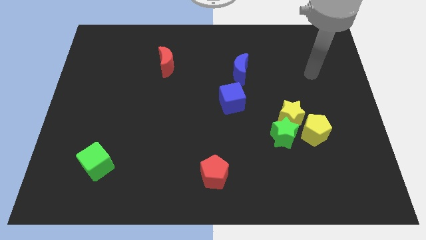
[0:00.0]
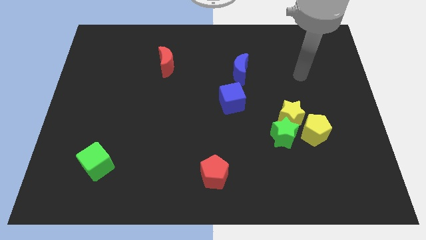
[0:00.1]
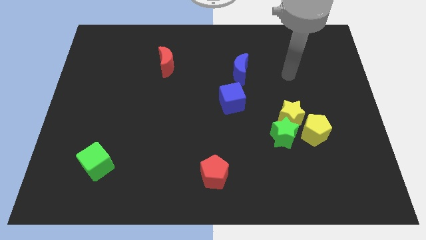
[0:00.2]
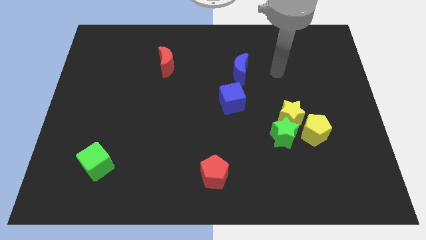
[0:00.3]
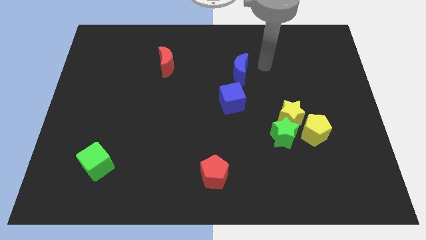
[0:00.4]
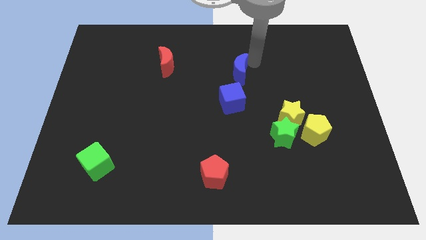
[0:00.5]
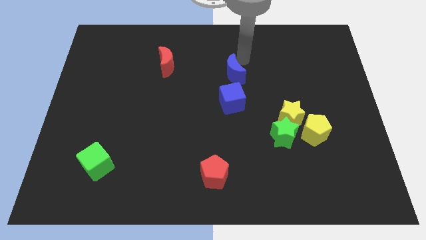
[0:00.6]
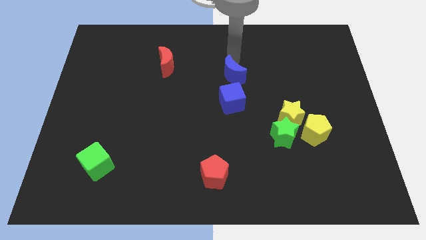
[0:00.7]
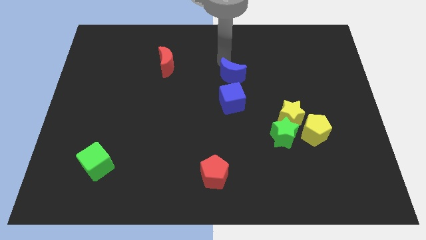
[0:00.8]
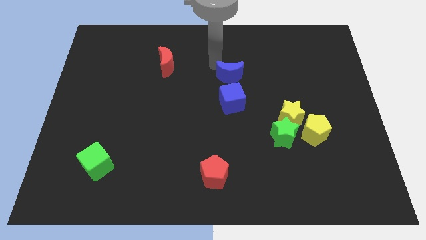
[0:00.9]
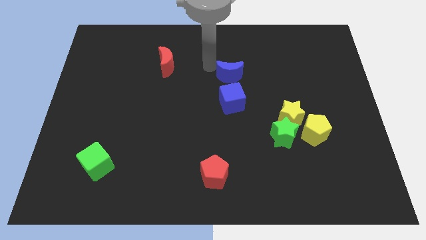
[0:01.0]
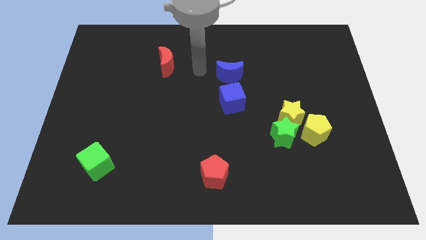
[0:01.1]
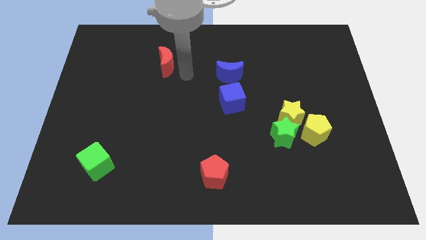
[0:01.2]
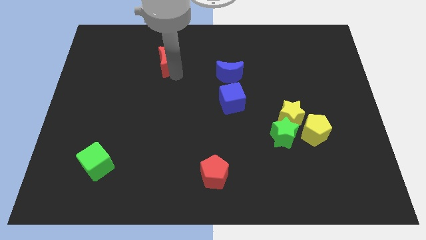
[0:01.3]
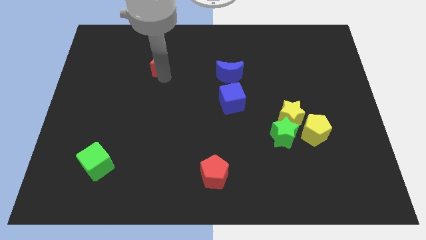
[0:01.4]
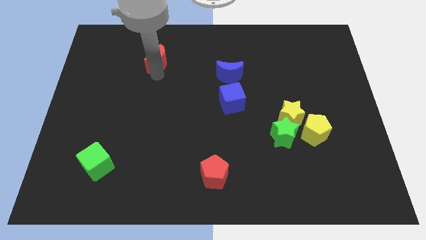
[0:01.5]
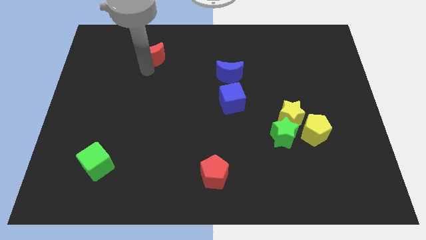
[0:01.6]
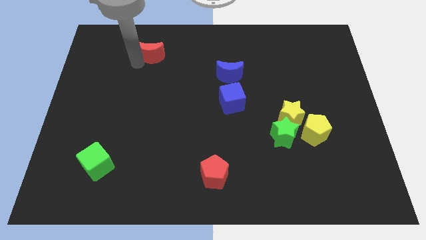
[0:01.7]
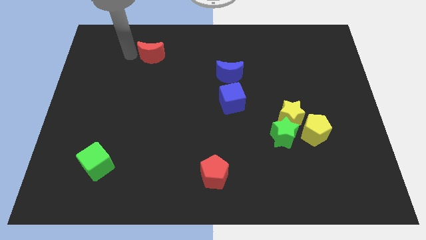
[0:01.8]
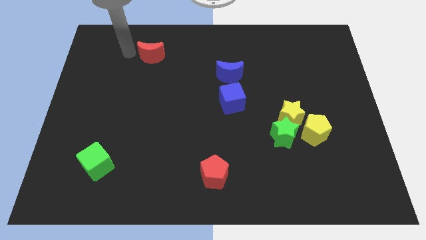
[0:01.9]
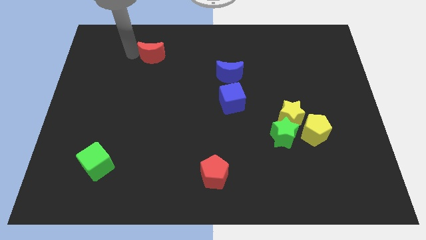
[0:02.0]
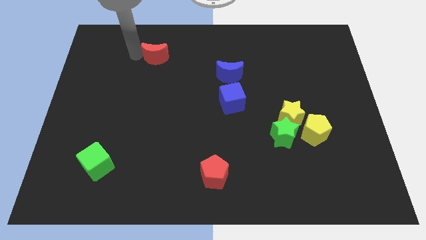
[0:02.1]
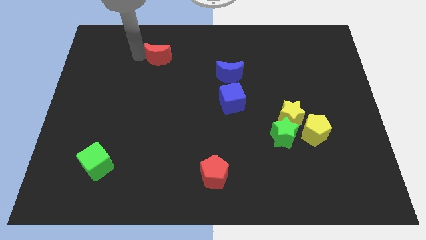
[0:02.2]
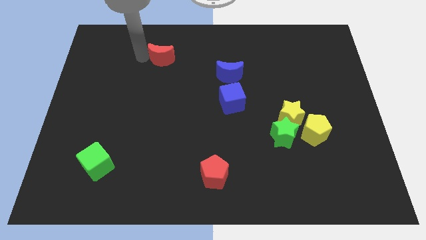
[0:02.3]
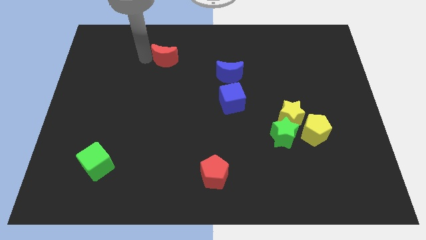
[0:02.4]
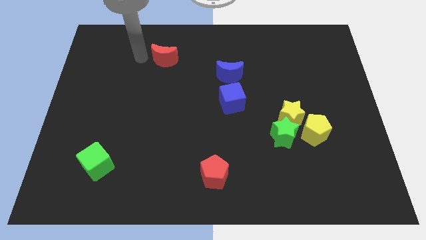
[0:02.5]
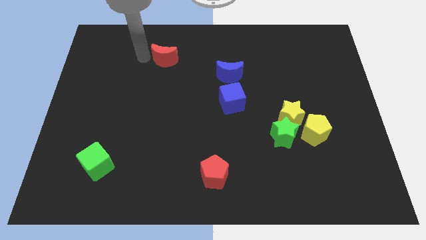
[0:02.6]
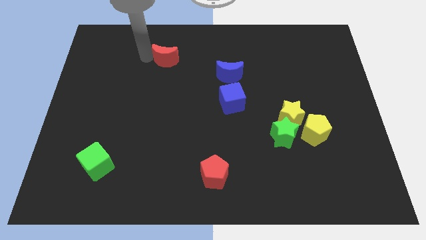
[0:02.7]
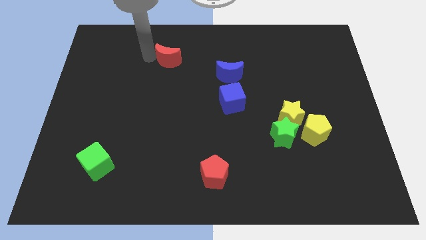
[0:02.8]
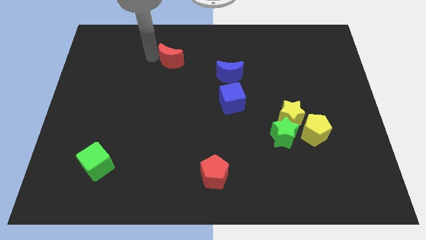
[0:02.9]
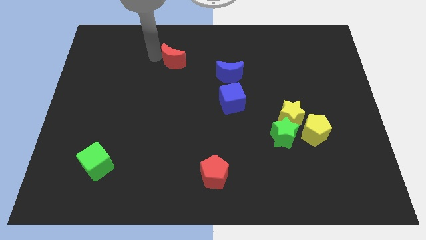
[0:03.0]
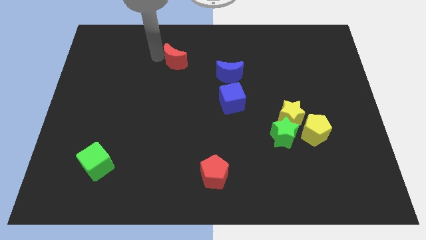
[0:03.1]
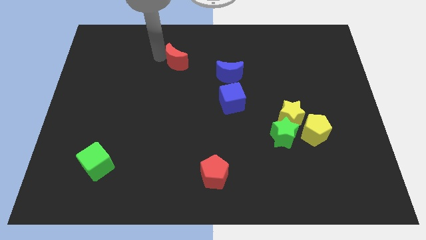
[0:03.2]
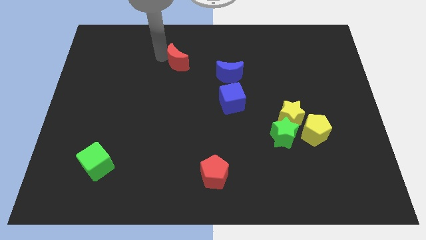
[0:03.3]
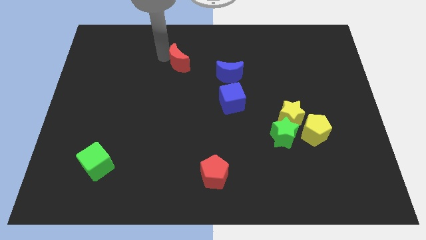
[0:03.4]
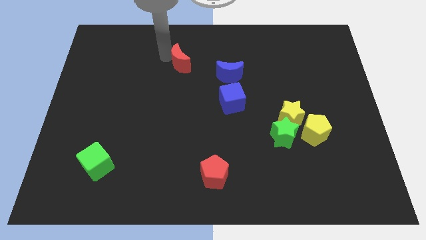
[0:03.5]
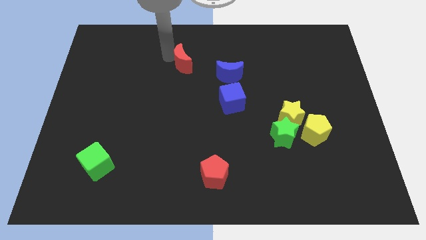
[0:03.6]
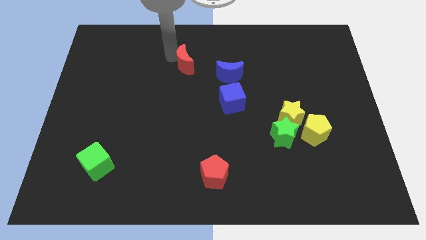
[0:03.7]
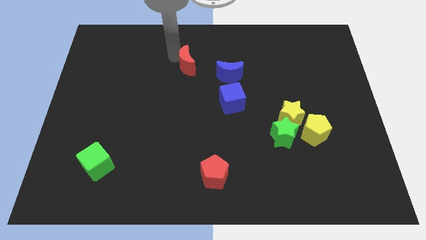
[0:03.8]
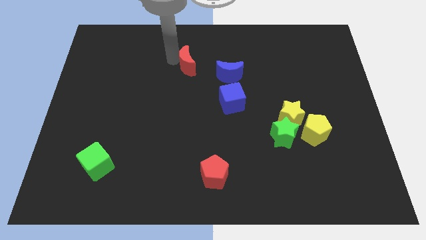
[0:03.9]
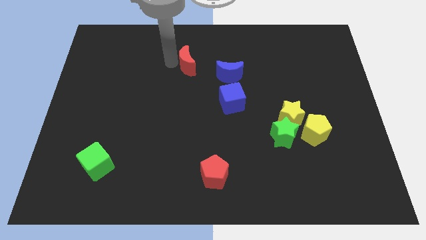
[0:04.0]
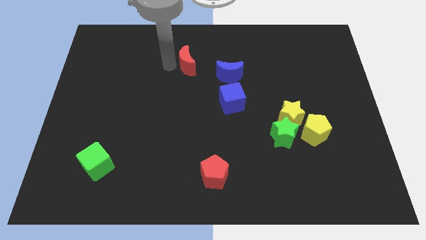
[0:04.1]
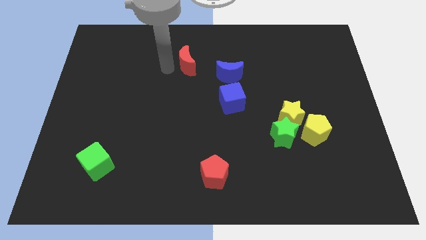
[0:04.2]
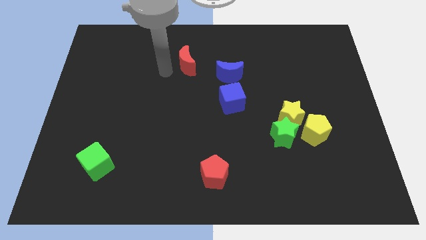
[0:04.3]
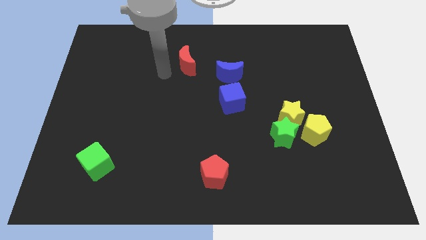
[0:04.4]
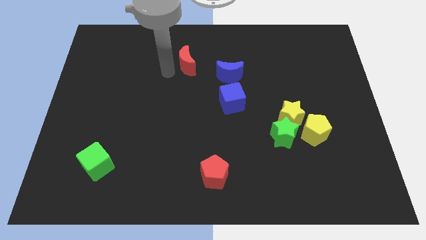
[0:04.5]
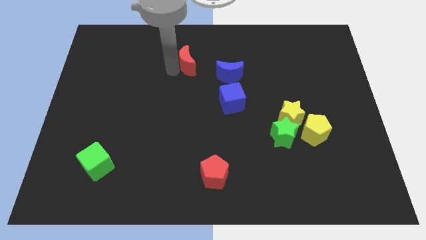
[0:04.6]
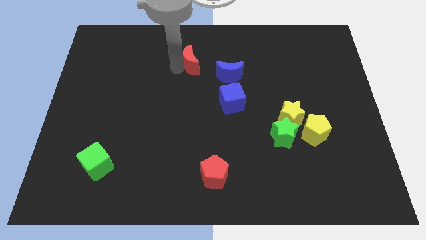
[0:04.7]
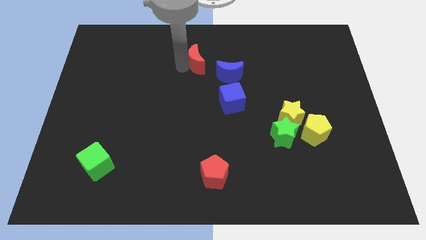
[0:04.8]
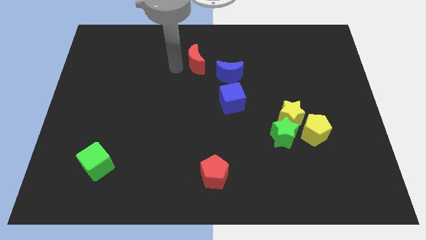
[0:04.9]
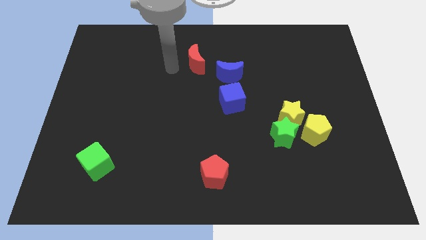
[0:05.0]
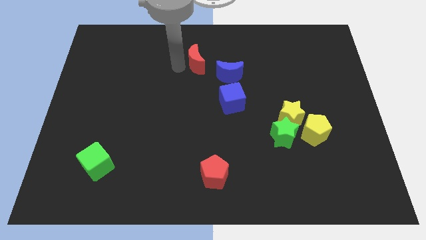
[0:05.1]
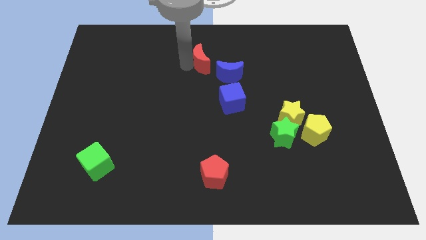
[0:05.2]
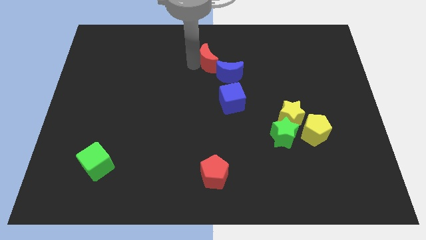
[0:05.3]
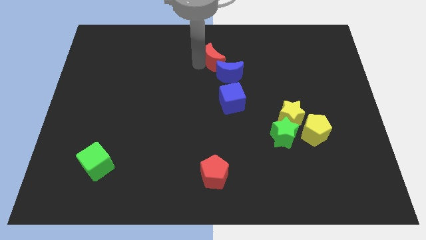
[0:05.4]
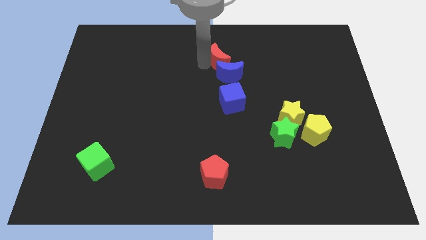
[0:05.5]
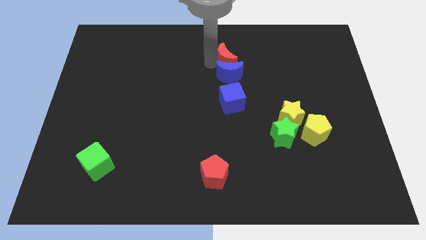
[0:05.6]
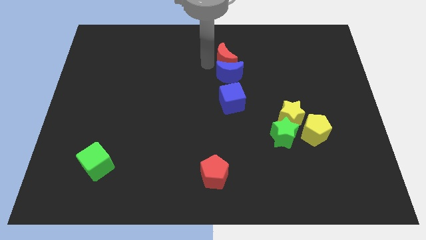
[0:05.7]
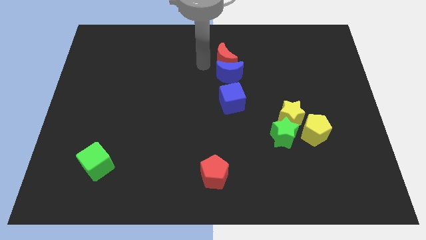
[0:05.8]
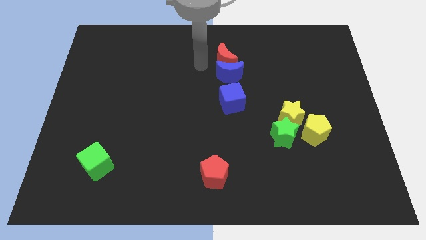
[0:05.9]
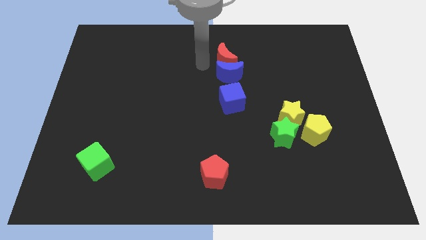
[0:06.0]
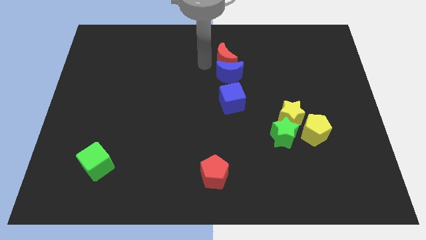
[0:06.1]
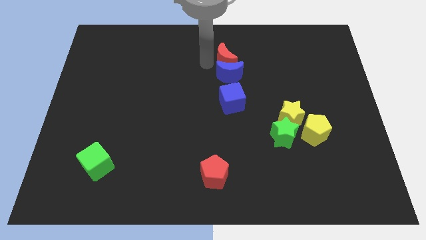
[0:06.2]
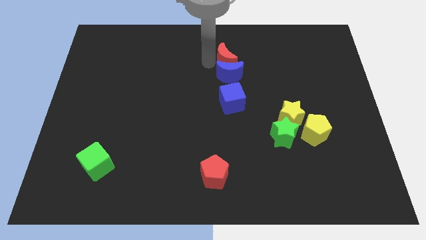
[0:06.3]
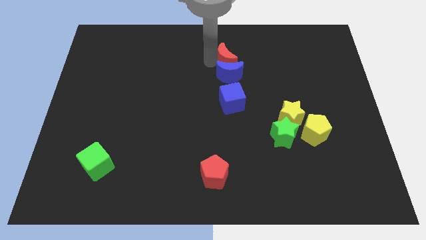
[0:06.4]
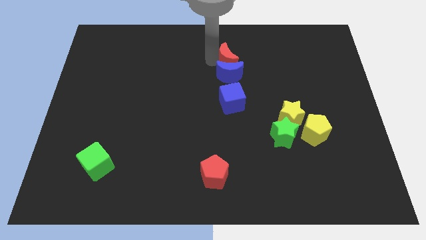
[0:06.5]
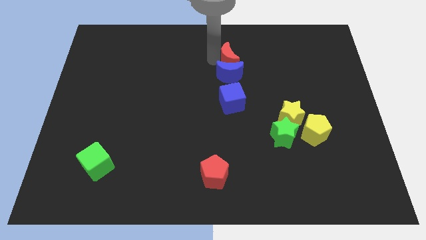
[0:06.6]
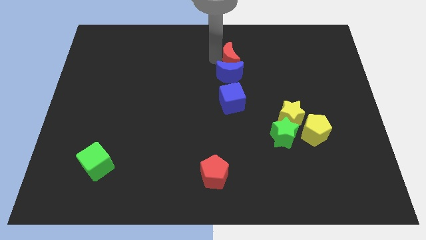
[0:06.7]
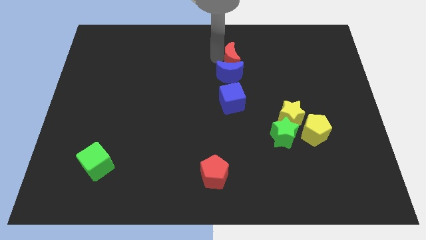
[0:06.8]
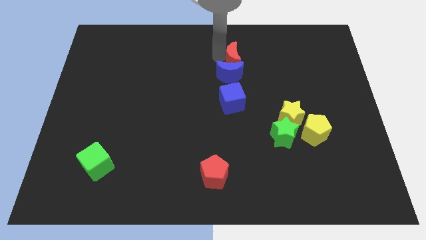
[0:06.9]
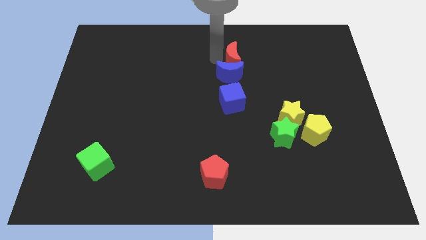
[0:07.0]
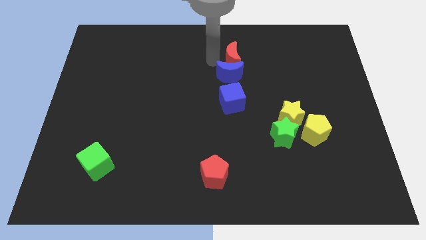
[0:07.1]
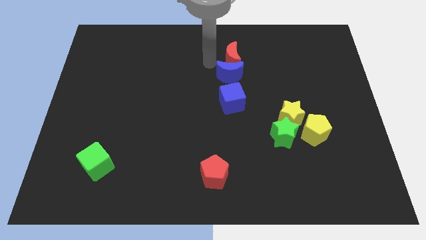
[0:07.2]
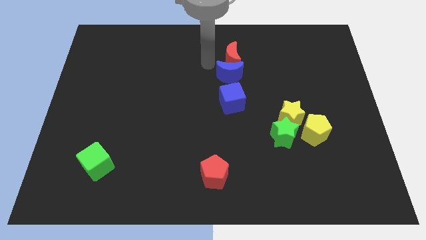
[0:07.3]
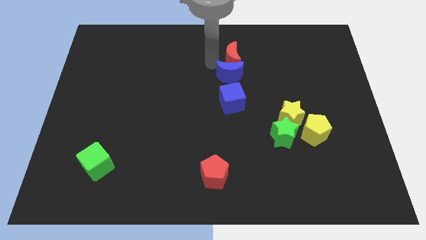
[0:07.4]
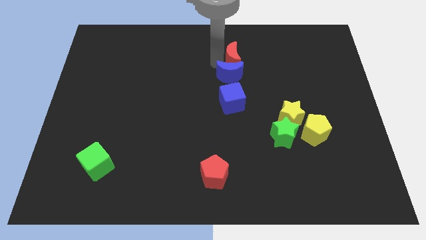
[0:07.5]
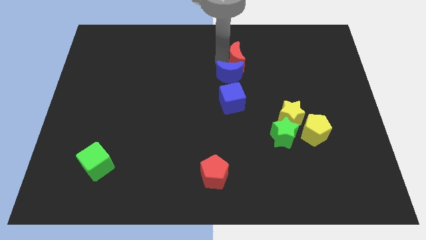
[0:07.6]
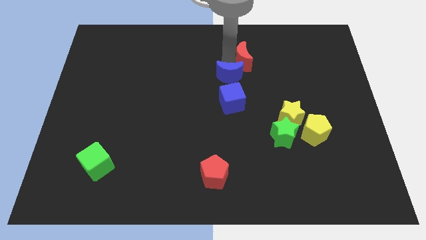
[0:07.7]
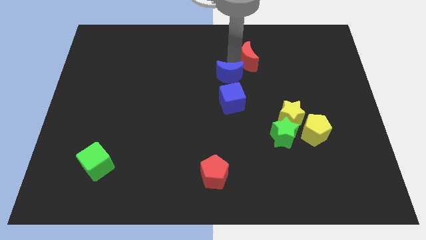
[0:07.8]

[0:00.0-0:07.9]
slide the red moon to the right
